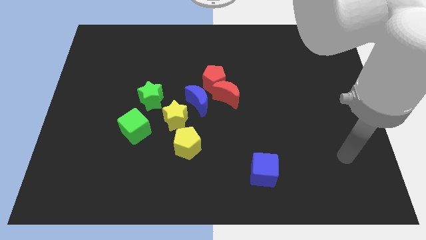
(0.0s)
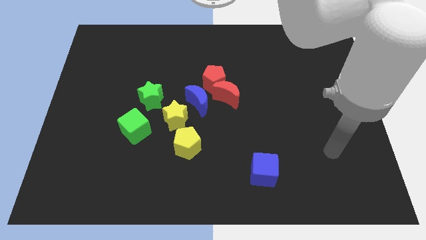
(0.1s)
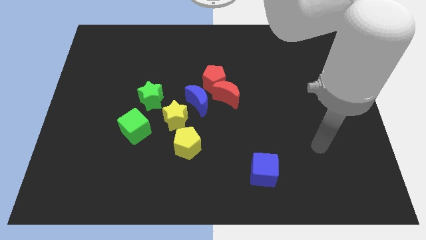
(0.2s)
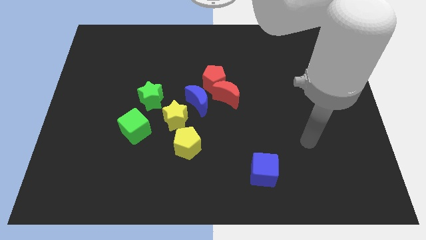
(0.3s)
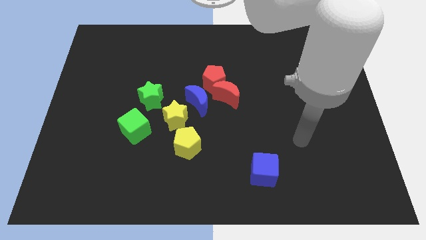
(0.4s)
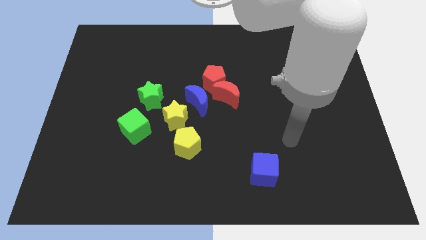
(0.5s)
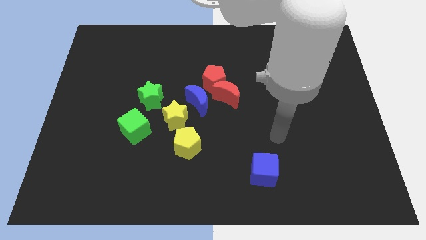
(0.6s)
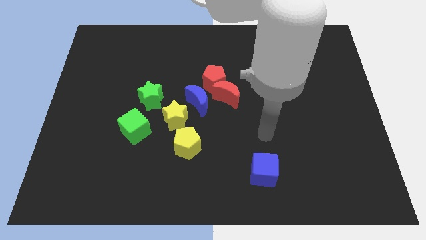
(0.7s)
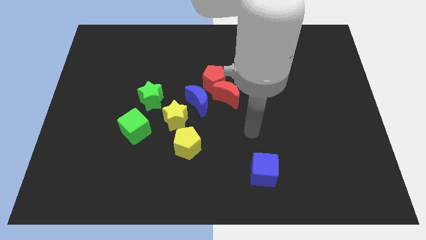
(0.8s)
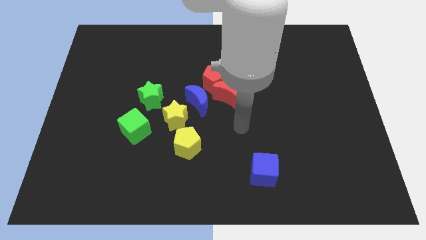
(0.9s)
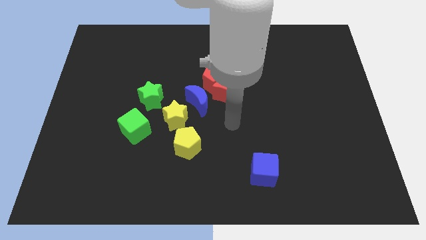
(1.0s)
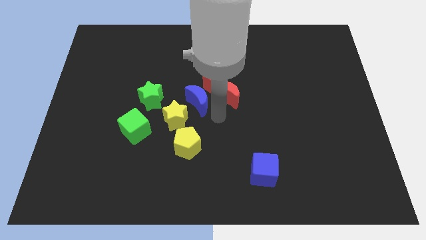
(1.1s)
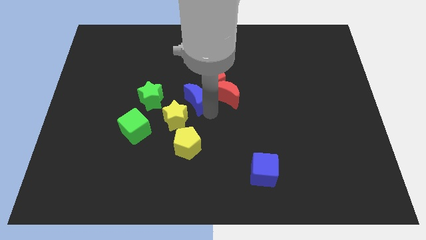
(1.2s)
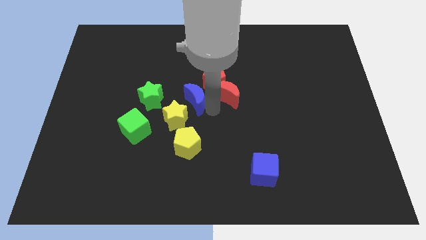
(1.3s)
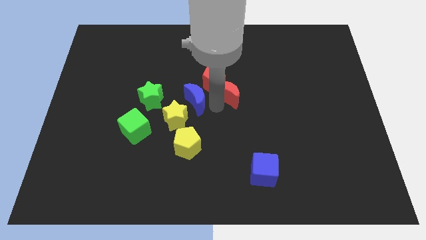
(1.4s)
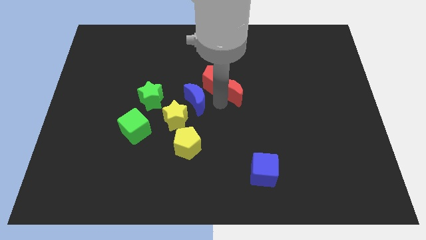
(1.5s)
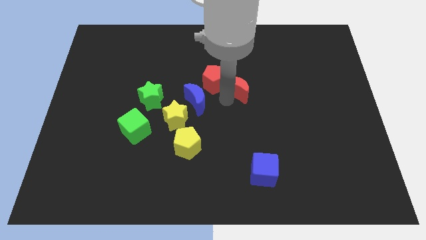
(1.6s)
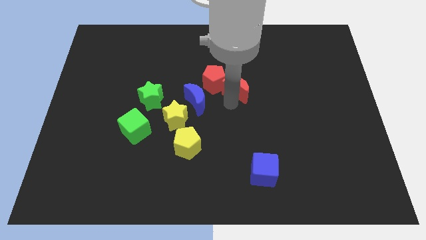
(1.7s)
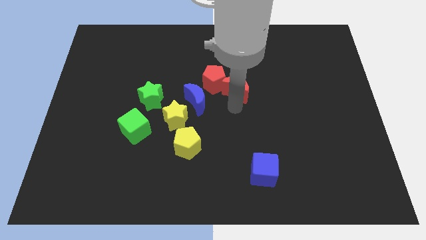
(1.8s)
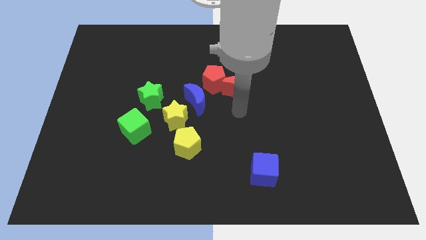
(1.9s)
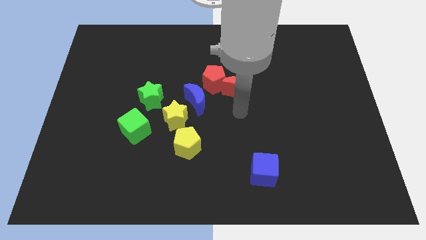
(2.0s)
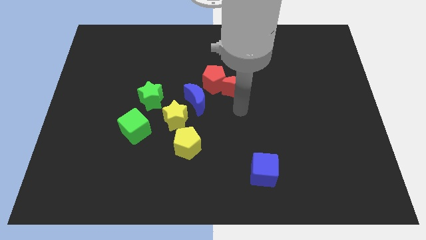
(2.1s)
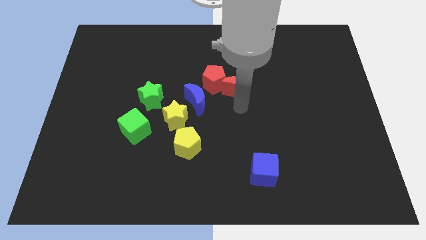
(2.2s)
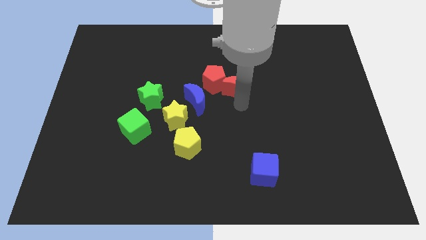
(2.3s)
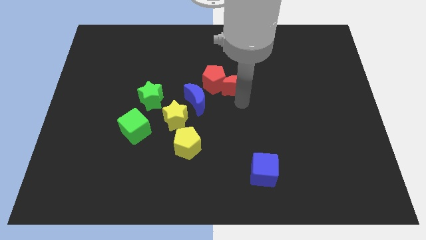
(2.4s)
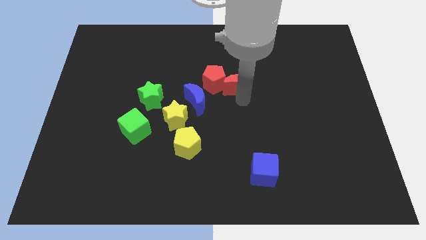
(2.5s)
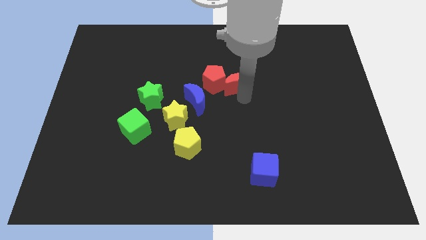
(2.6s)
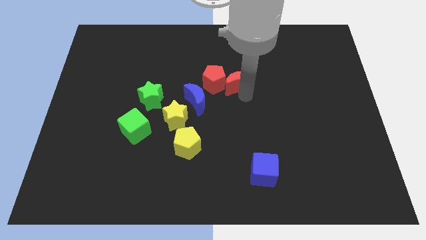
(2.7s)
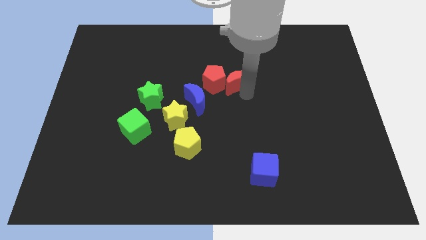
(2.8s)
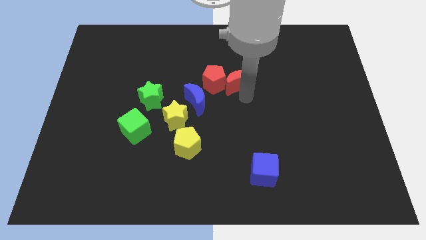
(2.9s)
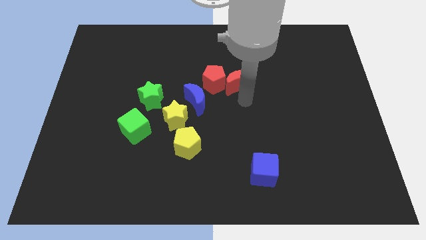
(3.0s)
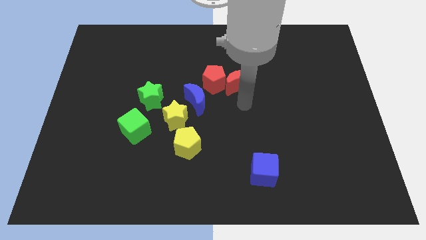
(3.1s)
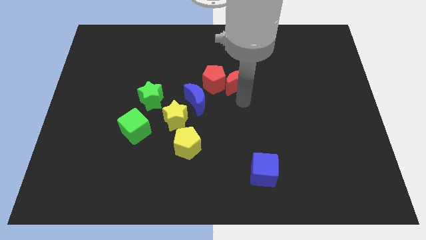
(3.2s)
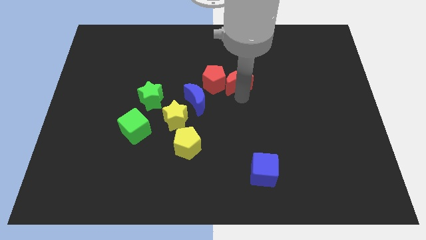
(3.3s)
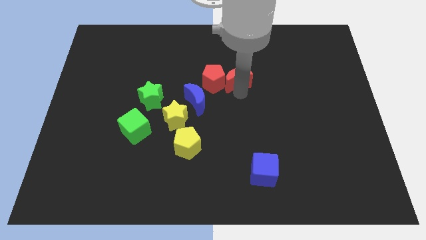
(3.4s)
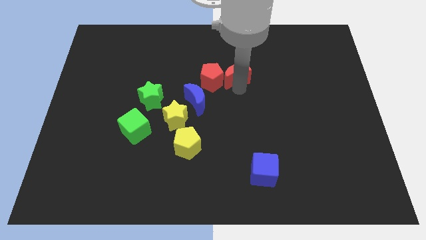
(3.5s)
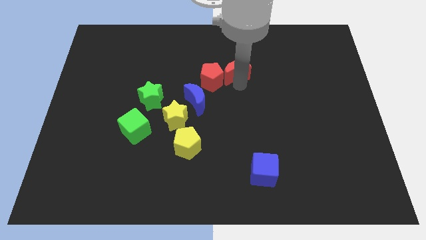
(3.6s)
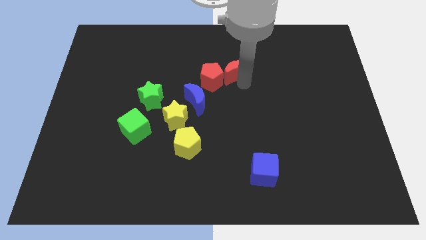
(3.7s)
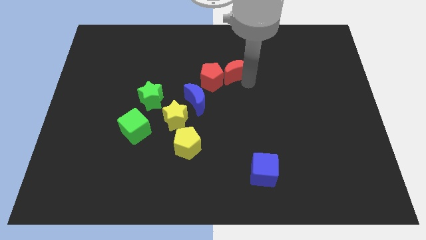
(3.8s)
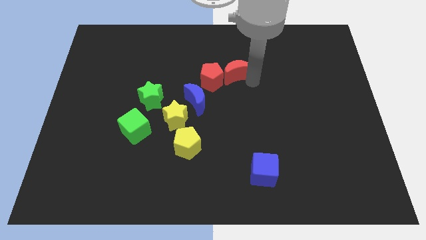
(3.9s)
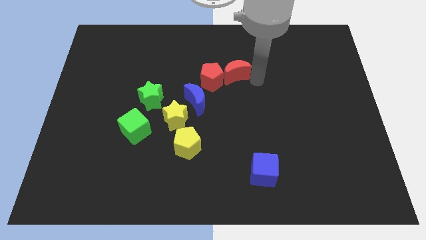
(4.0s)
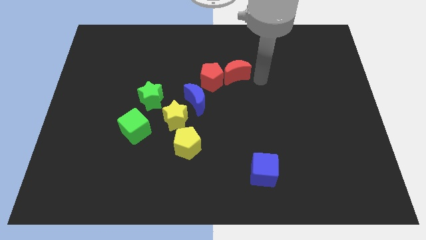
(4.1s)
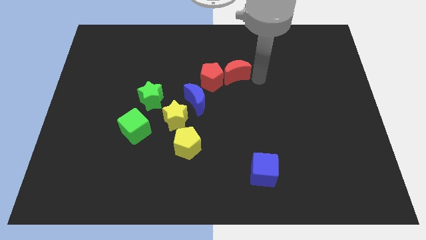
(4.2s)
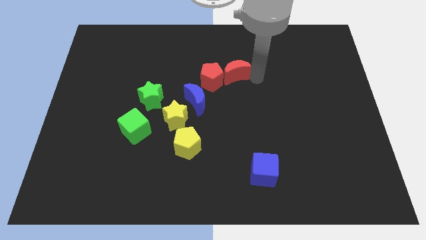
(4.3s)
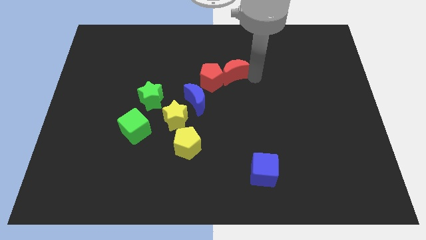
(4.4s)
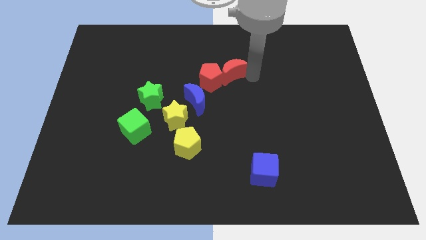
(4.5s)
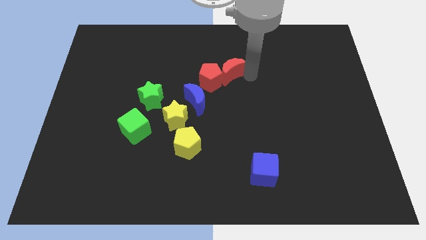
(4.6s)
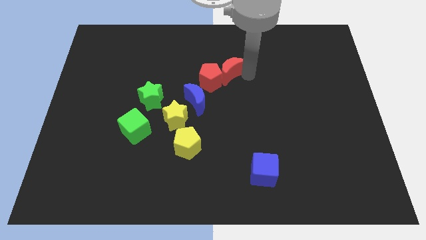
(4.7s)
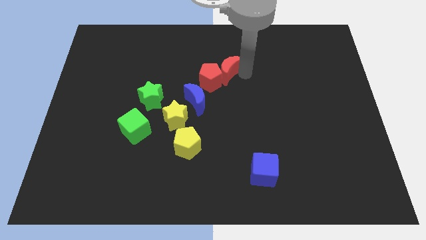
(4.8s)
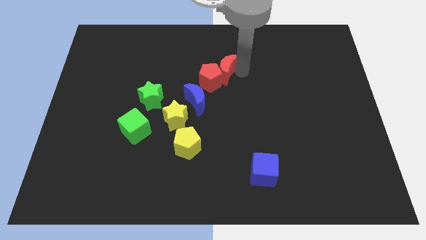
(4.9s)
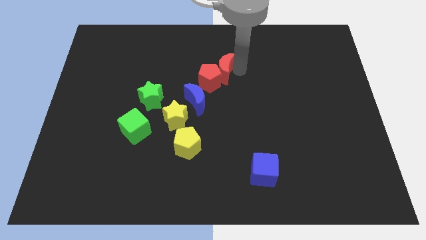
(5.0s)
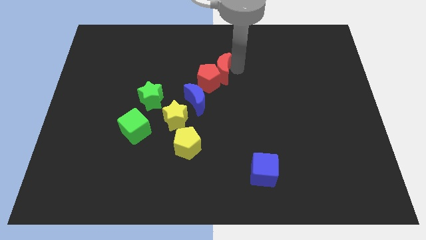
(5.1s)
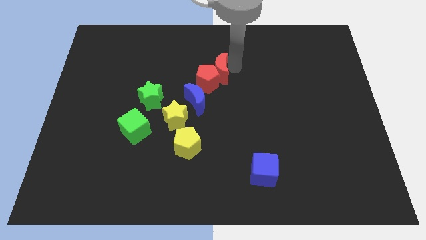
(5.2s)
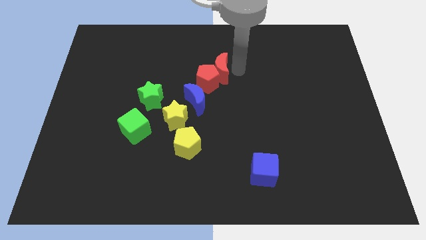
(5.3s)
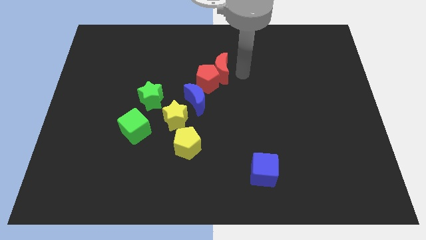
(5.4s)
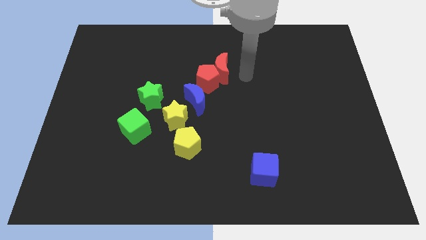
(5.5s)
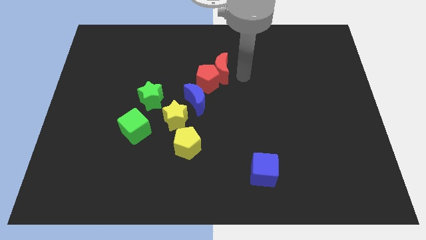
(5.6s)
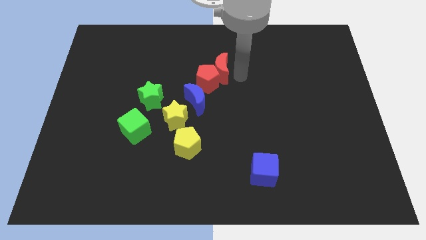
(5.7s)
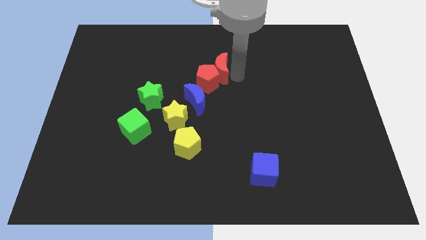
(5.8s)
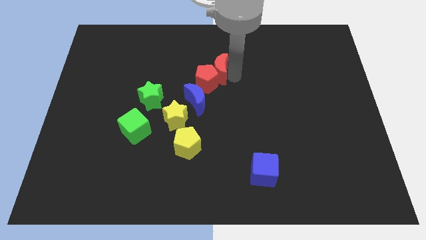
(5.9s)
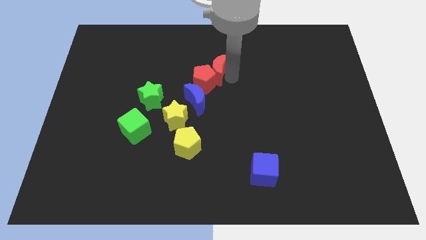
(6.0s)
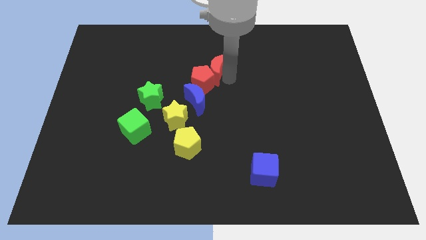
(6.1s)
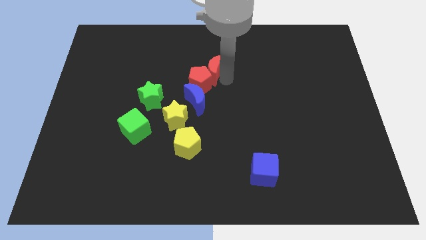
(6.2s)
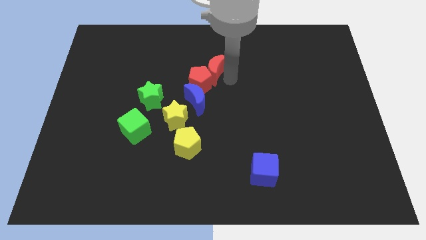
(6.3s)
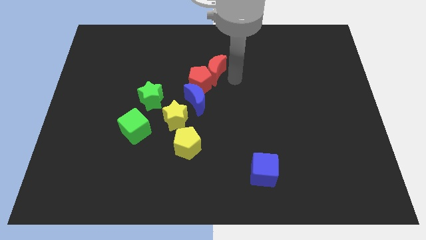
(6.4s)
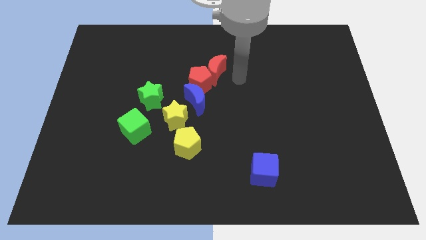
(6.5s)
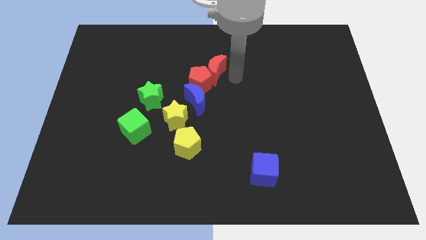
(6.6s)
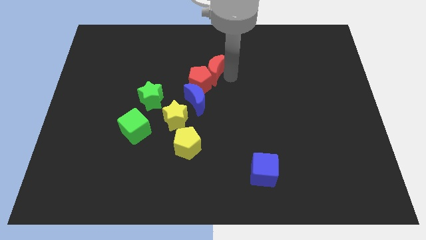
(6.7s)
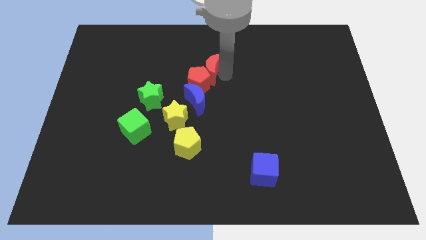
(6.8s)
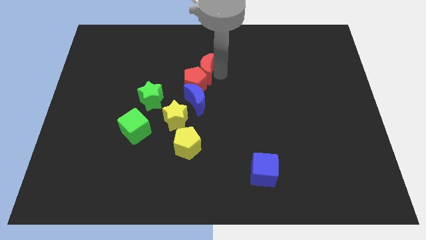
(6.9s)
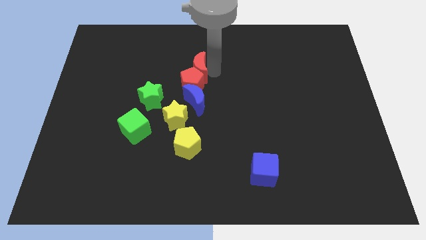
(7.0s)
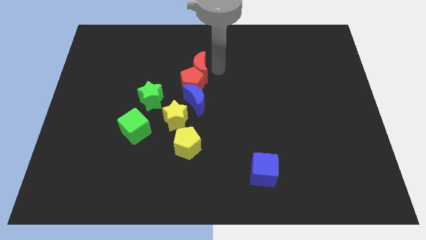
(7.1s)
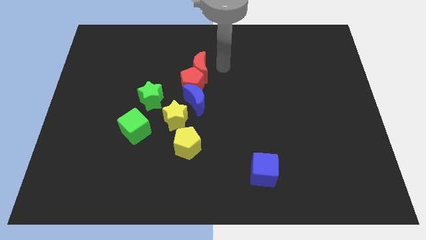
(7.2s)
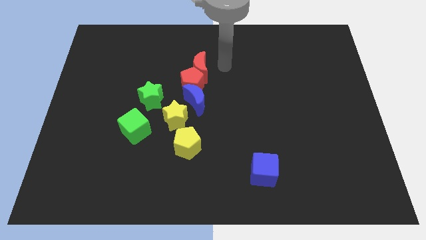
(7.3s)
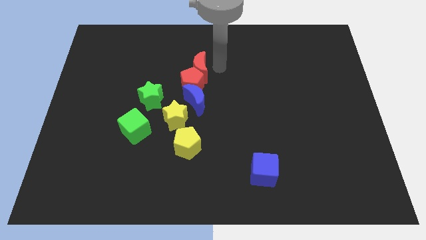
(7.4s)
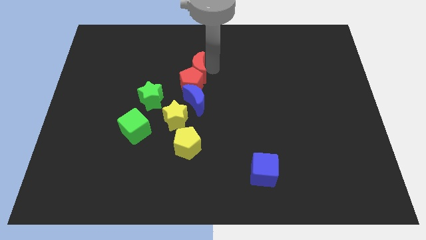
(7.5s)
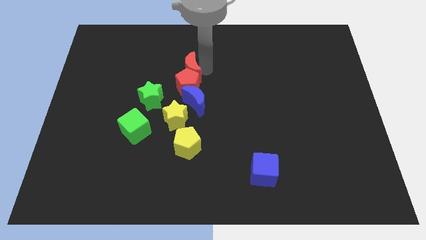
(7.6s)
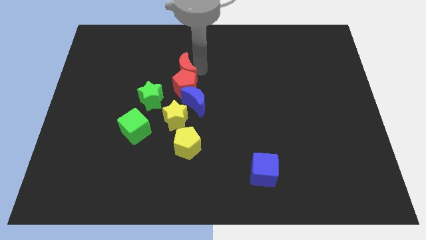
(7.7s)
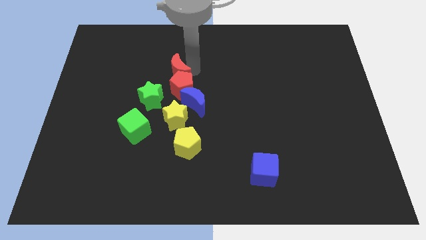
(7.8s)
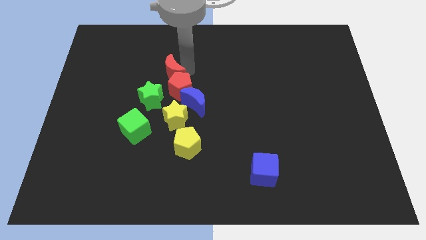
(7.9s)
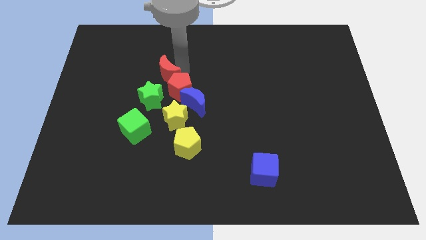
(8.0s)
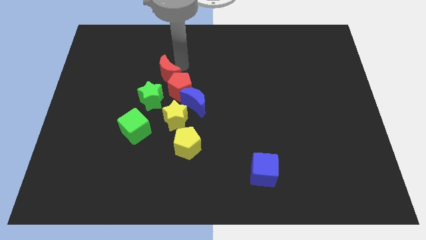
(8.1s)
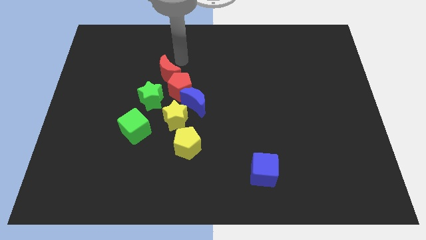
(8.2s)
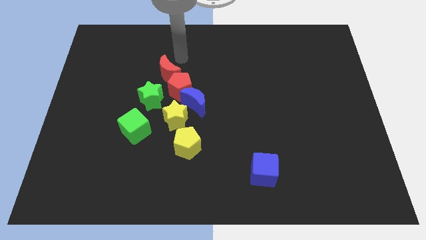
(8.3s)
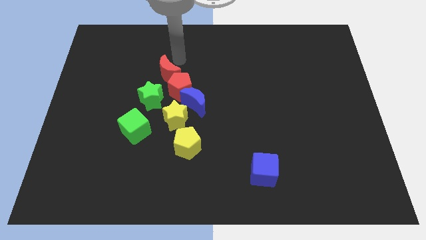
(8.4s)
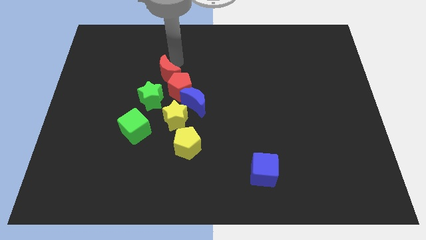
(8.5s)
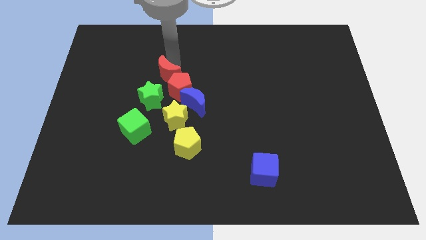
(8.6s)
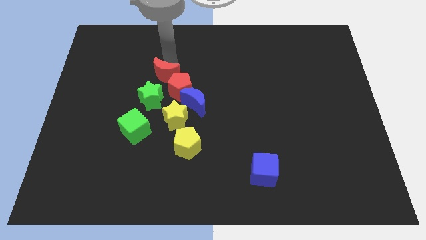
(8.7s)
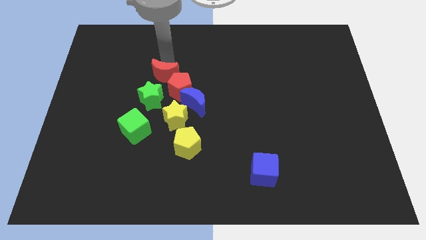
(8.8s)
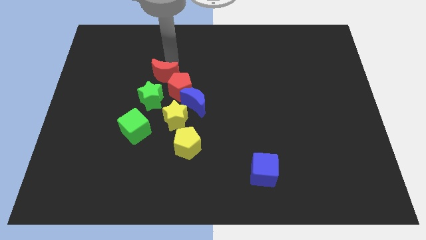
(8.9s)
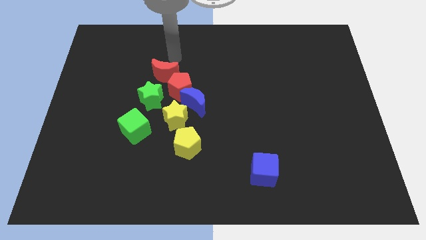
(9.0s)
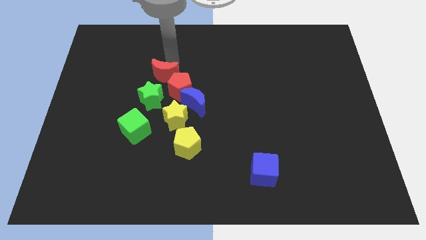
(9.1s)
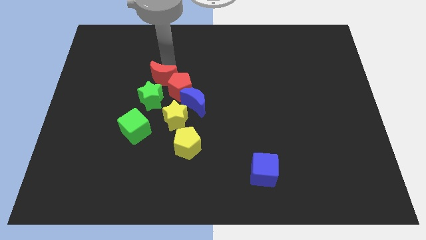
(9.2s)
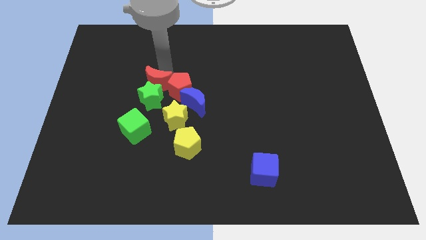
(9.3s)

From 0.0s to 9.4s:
move the red moon towards the green star
